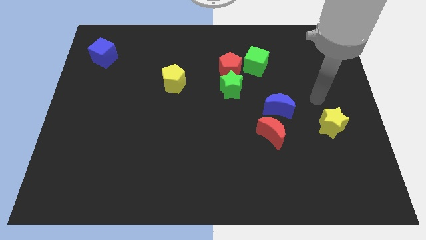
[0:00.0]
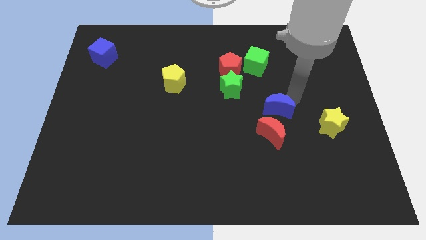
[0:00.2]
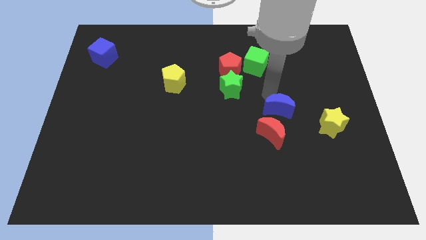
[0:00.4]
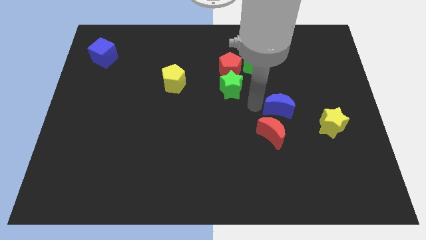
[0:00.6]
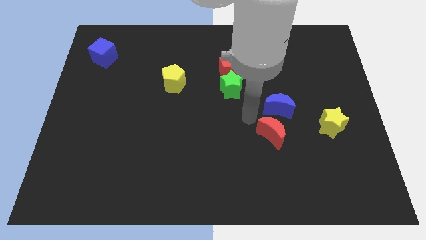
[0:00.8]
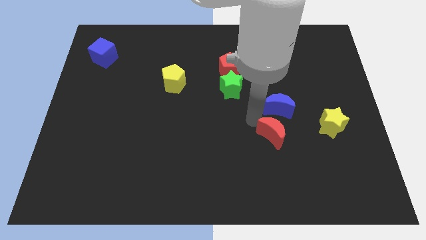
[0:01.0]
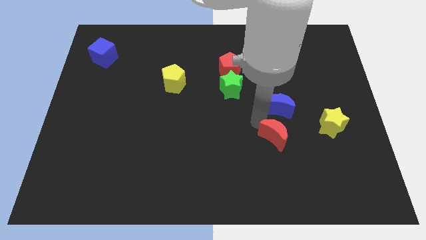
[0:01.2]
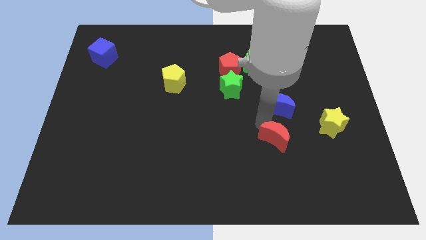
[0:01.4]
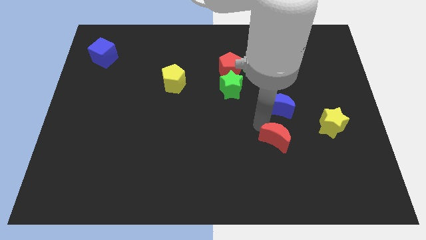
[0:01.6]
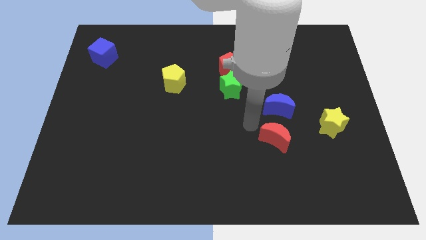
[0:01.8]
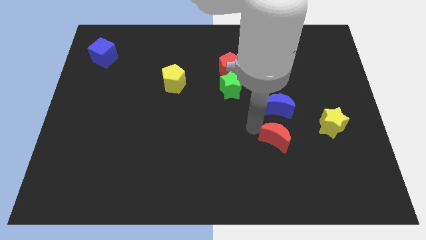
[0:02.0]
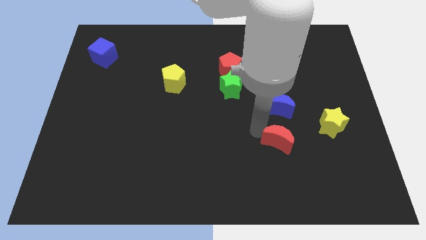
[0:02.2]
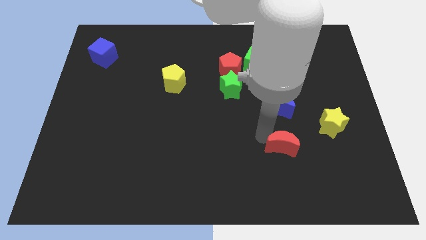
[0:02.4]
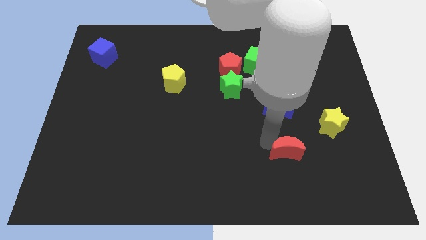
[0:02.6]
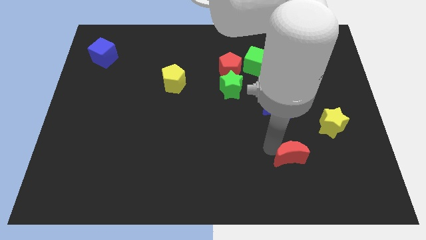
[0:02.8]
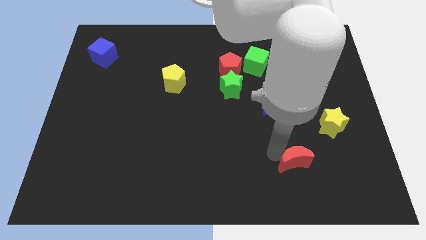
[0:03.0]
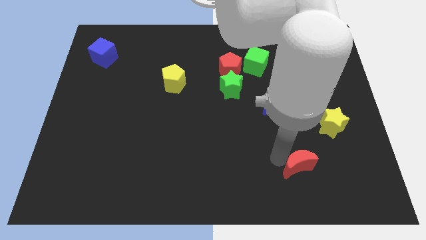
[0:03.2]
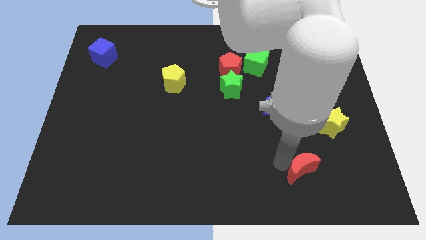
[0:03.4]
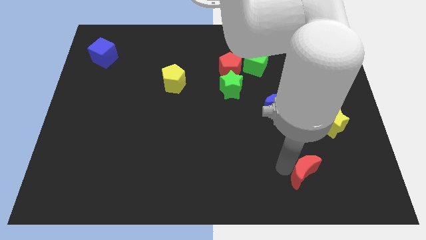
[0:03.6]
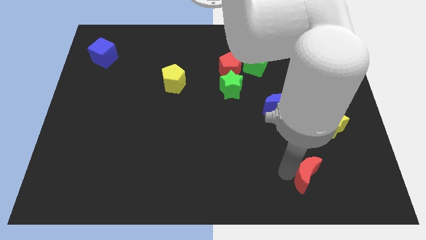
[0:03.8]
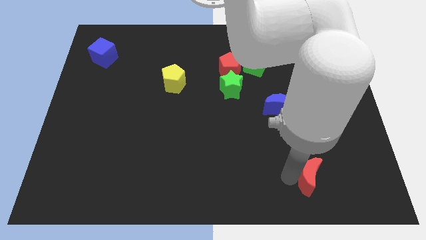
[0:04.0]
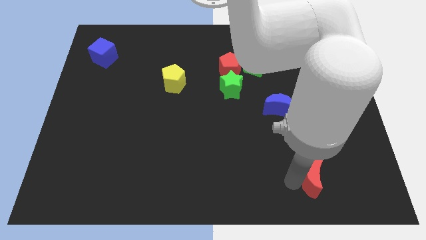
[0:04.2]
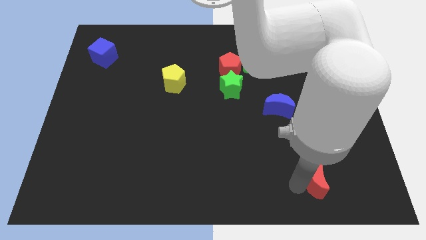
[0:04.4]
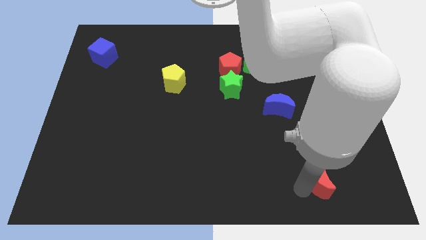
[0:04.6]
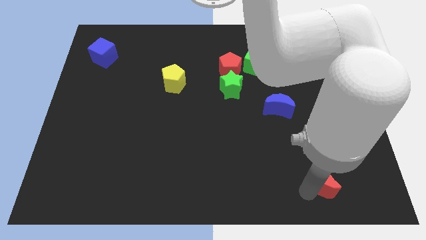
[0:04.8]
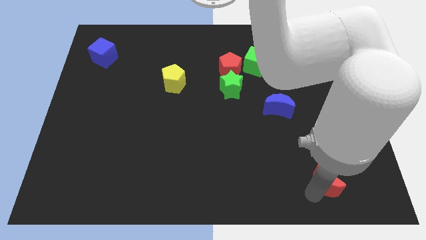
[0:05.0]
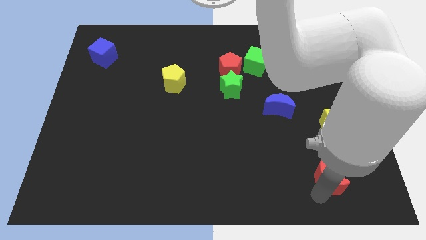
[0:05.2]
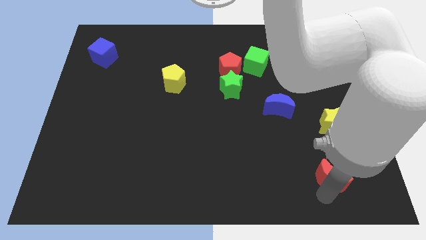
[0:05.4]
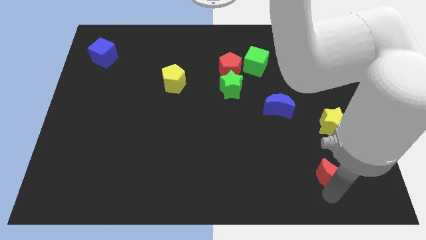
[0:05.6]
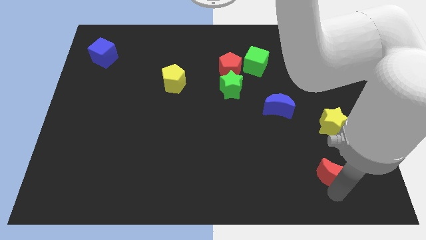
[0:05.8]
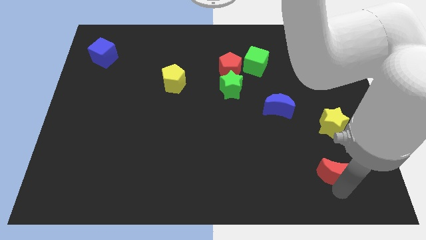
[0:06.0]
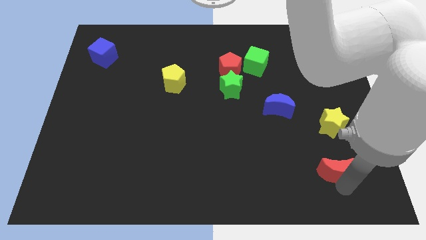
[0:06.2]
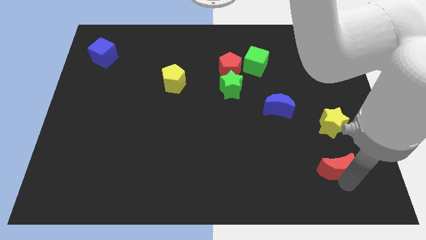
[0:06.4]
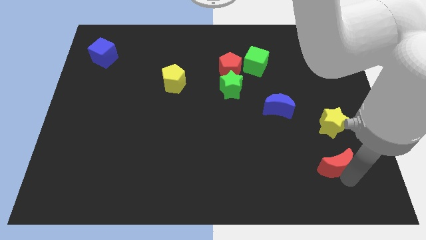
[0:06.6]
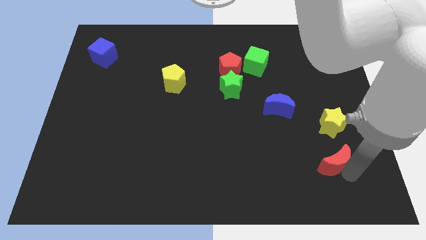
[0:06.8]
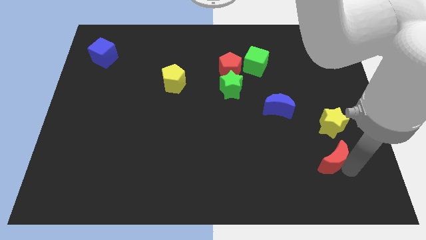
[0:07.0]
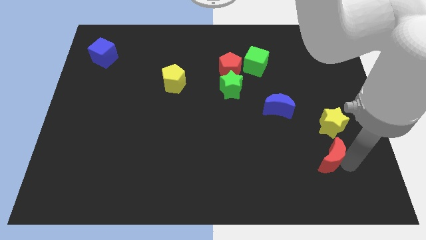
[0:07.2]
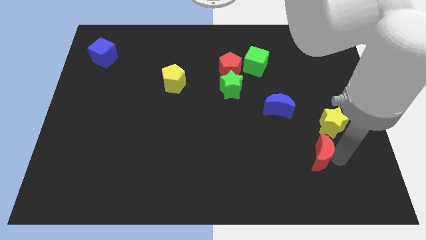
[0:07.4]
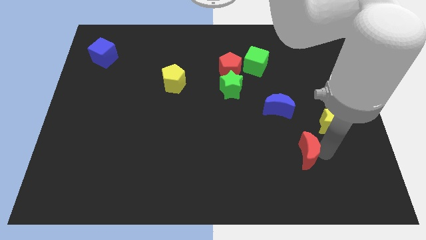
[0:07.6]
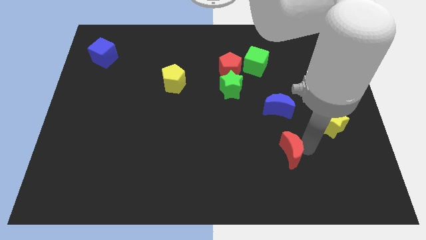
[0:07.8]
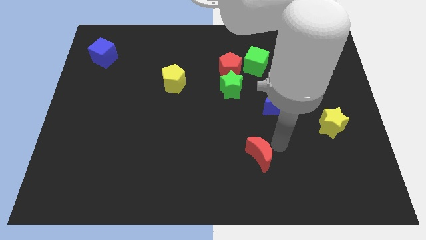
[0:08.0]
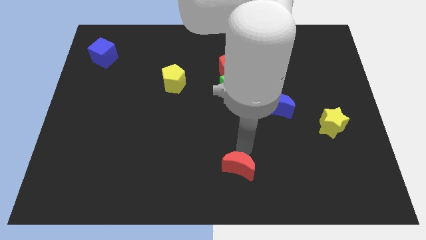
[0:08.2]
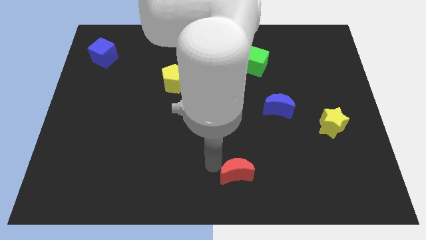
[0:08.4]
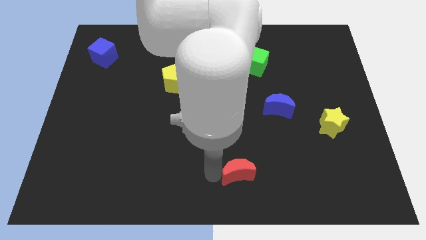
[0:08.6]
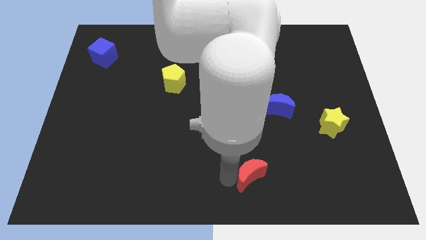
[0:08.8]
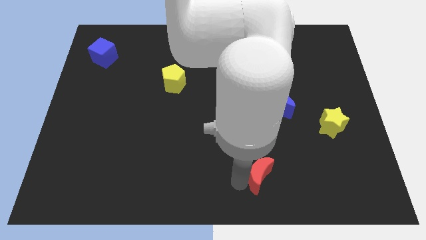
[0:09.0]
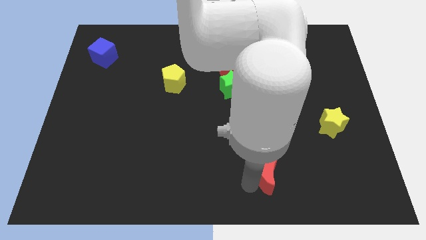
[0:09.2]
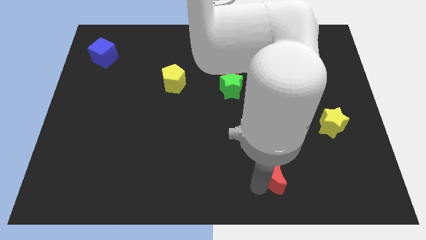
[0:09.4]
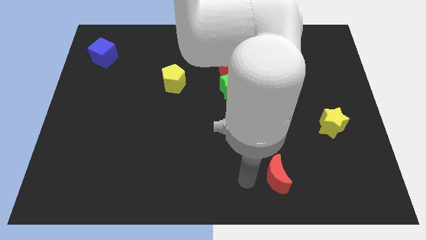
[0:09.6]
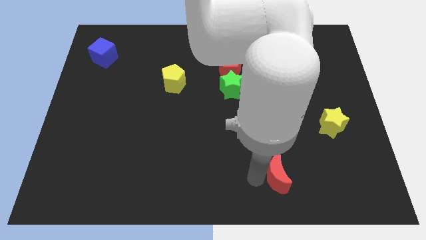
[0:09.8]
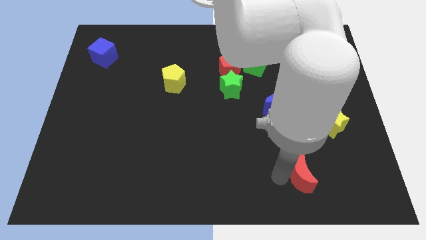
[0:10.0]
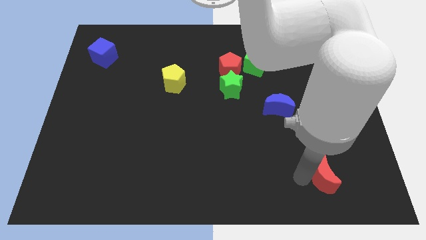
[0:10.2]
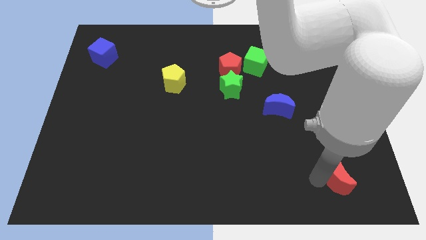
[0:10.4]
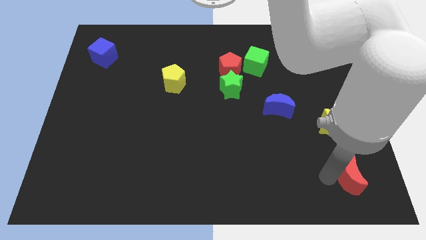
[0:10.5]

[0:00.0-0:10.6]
move the red moon to the lower right corner

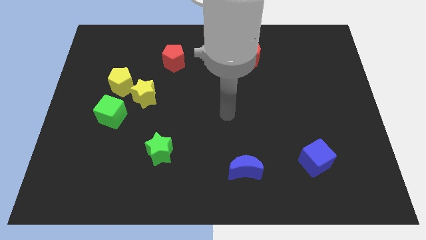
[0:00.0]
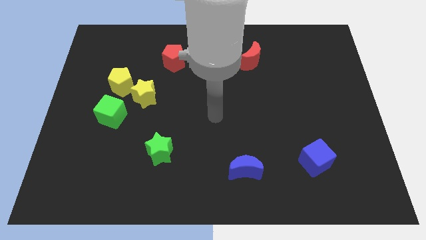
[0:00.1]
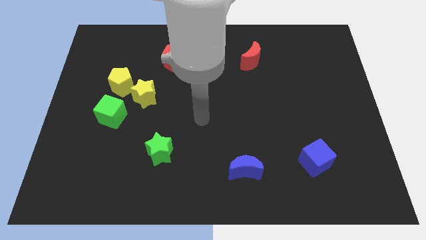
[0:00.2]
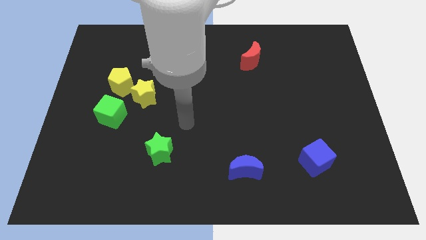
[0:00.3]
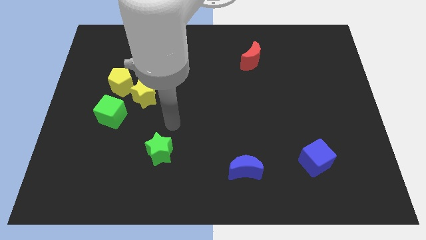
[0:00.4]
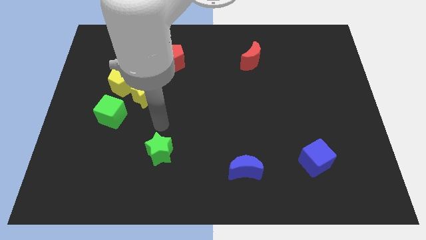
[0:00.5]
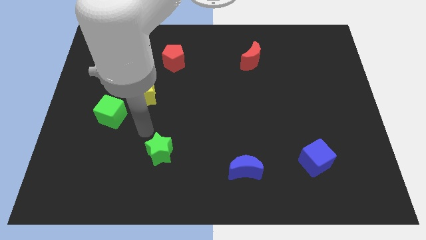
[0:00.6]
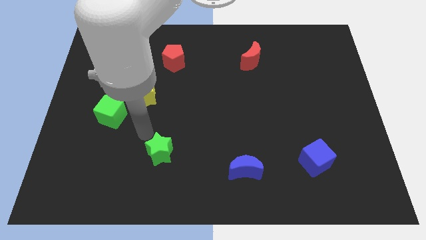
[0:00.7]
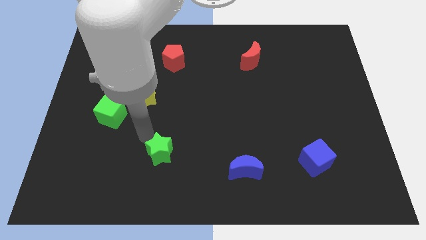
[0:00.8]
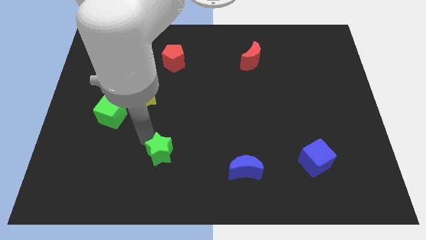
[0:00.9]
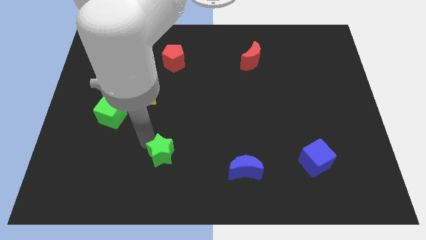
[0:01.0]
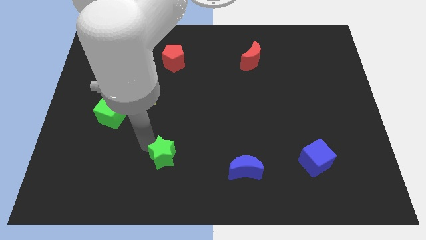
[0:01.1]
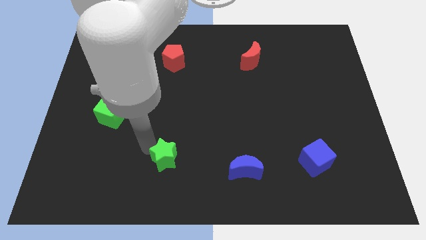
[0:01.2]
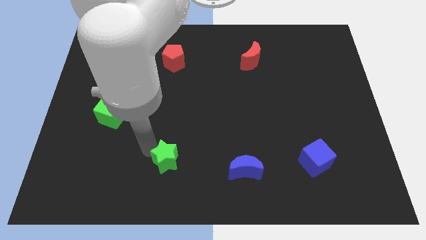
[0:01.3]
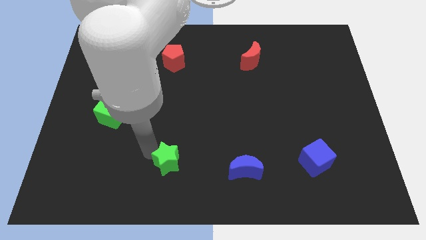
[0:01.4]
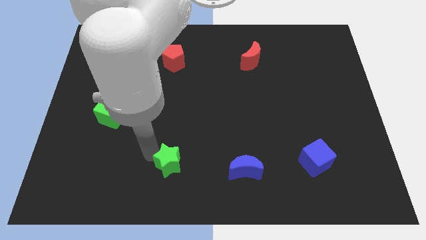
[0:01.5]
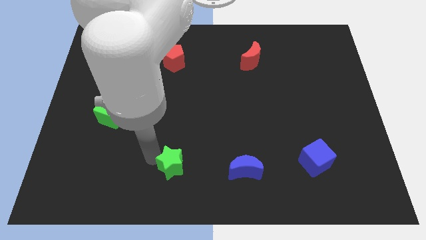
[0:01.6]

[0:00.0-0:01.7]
push the green star to the bottom

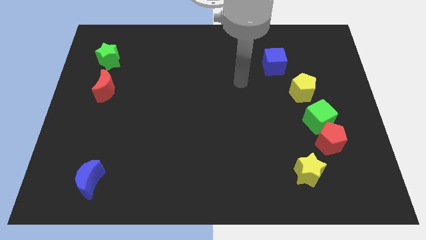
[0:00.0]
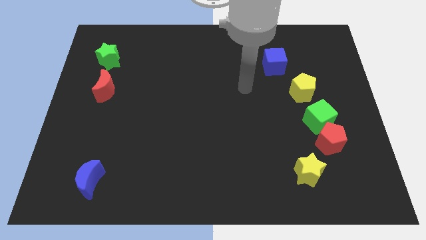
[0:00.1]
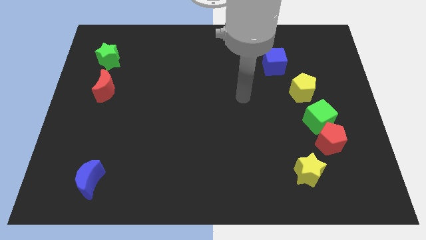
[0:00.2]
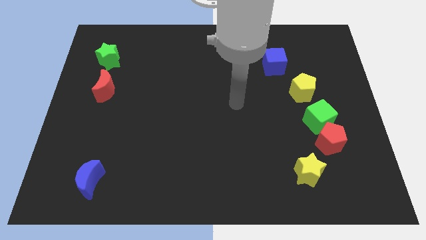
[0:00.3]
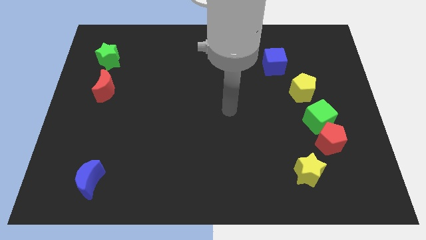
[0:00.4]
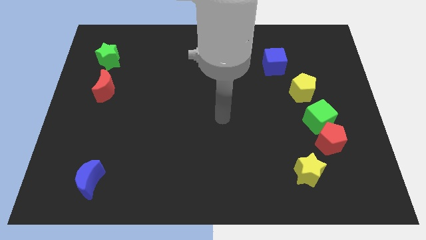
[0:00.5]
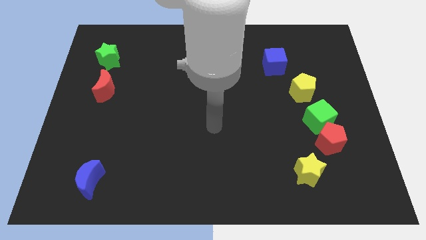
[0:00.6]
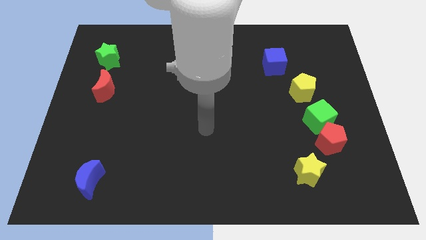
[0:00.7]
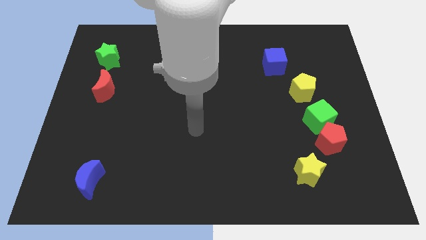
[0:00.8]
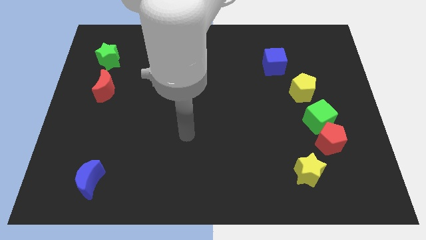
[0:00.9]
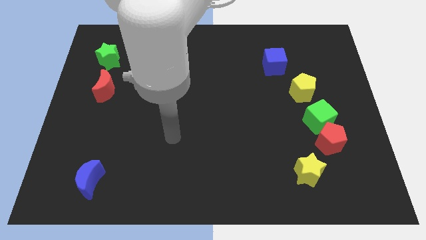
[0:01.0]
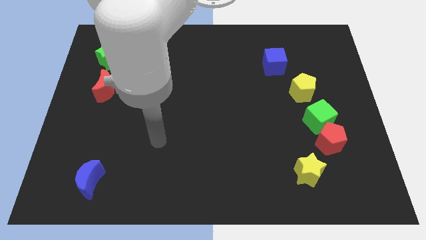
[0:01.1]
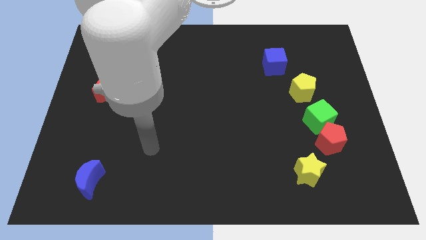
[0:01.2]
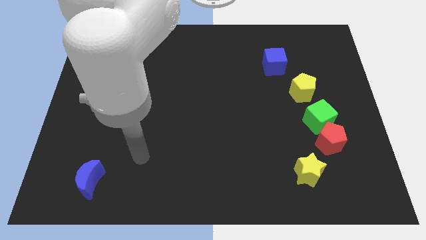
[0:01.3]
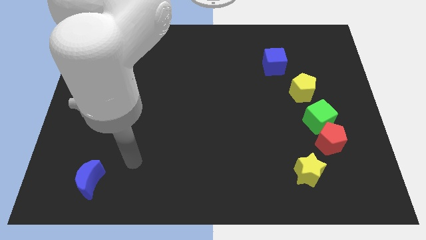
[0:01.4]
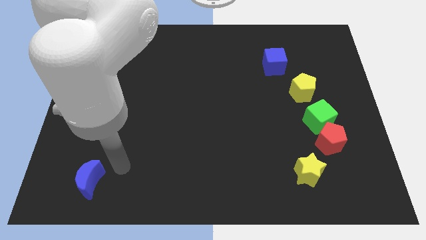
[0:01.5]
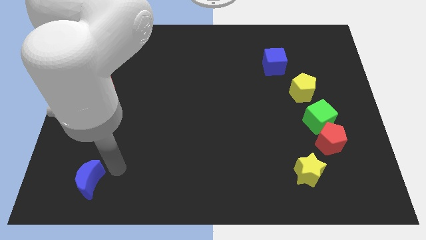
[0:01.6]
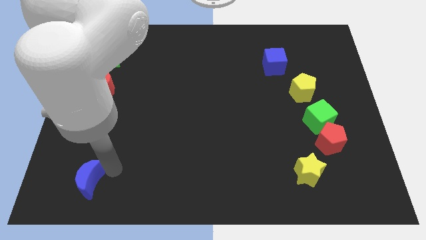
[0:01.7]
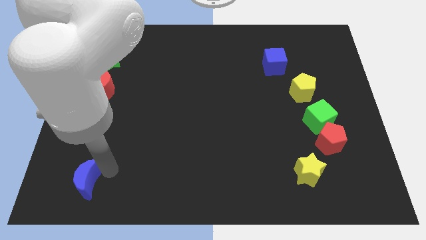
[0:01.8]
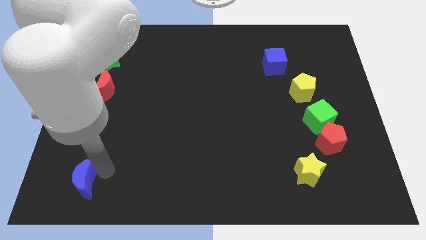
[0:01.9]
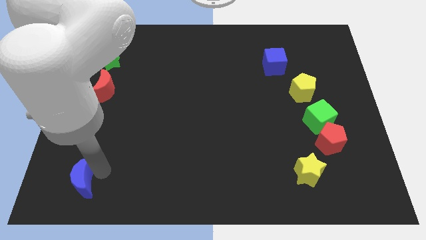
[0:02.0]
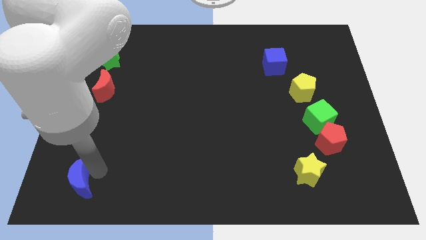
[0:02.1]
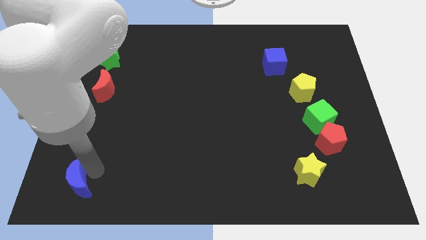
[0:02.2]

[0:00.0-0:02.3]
put the blue moon to the bottom left of the board
